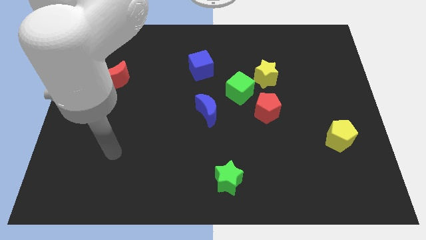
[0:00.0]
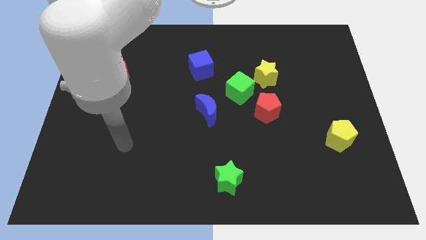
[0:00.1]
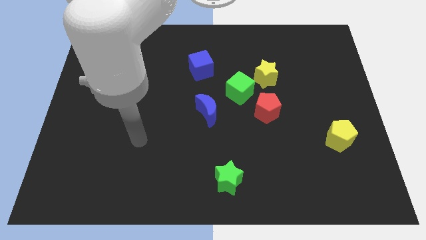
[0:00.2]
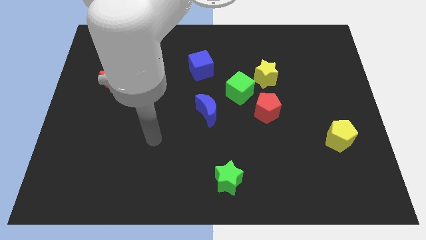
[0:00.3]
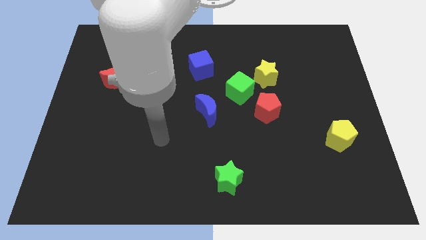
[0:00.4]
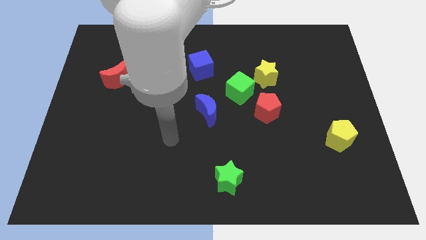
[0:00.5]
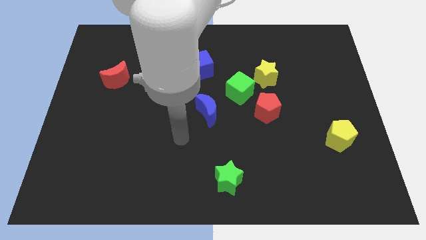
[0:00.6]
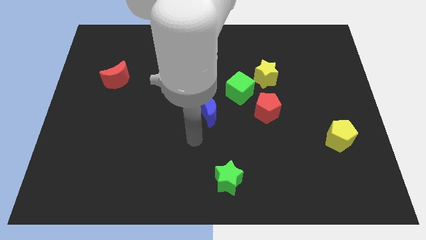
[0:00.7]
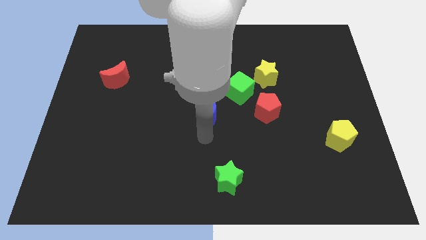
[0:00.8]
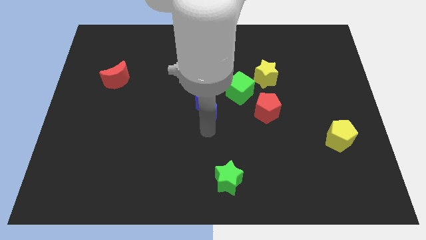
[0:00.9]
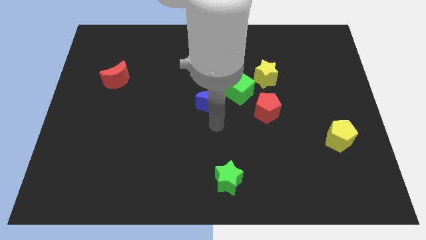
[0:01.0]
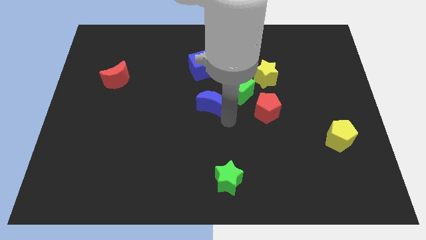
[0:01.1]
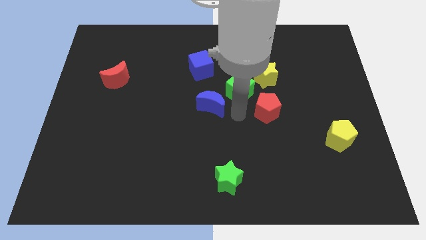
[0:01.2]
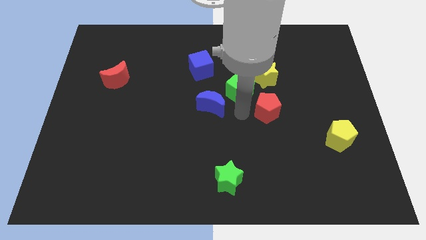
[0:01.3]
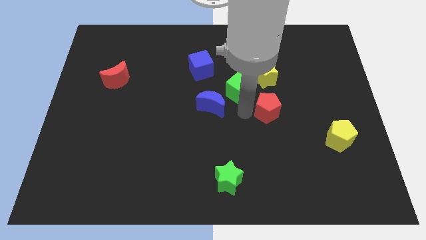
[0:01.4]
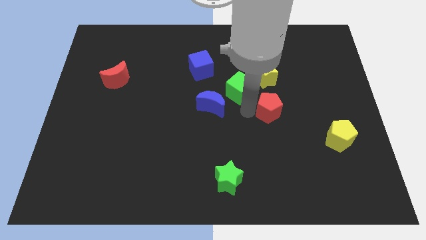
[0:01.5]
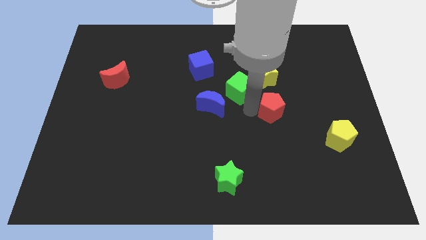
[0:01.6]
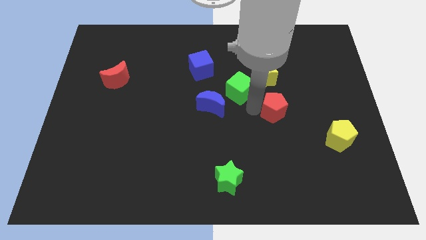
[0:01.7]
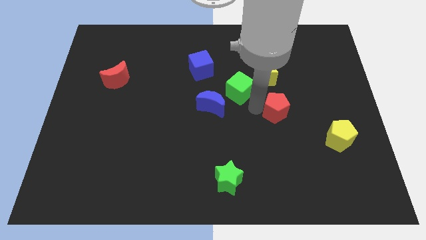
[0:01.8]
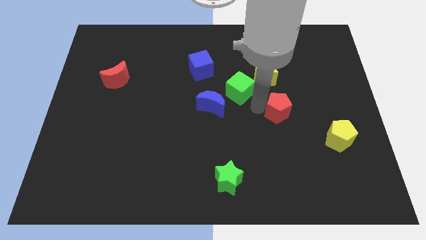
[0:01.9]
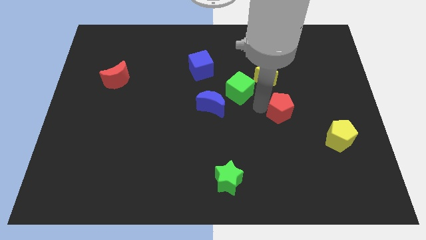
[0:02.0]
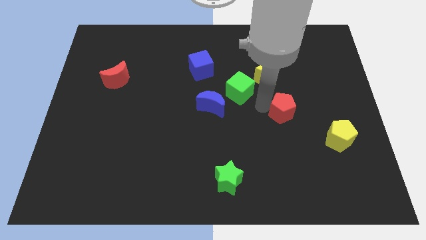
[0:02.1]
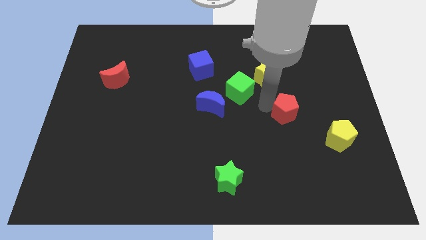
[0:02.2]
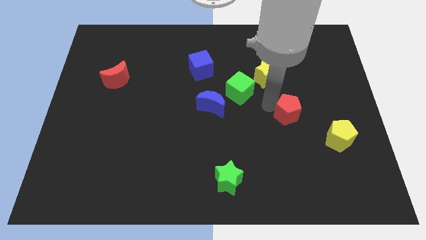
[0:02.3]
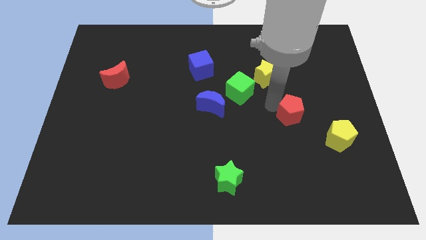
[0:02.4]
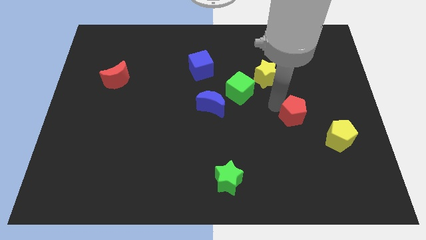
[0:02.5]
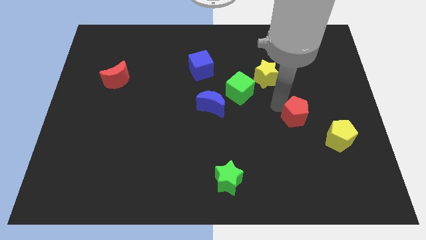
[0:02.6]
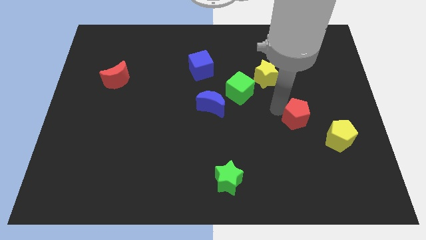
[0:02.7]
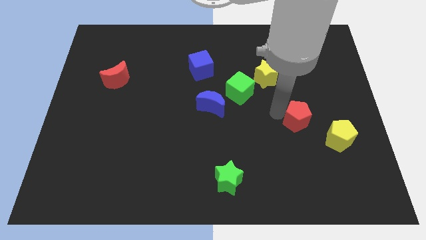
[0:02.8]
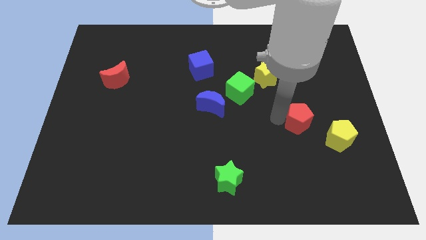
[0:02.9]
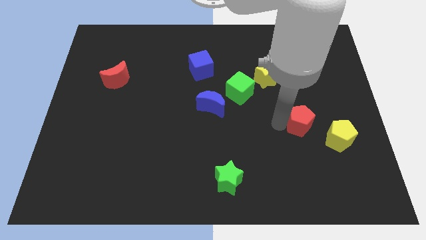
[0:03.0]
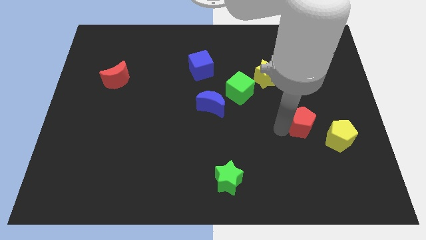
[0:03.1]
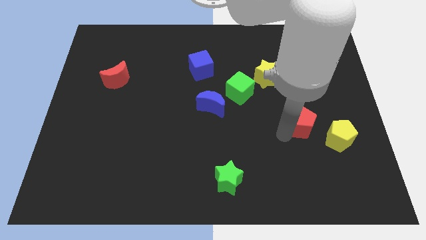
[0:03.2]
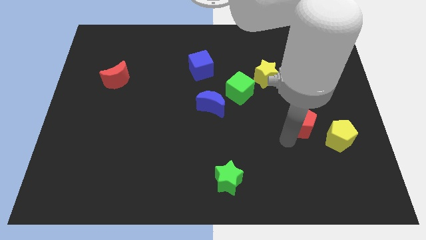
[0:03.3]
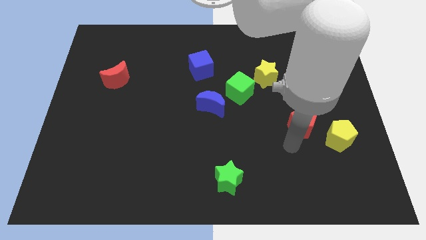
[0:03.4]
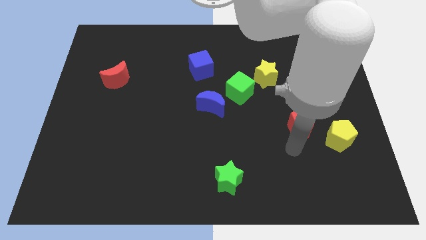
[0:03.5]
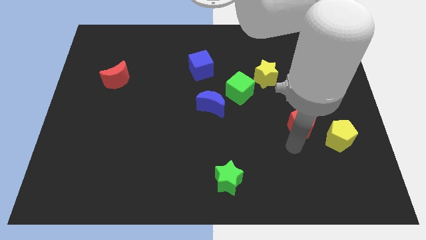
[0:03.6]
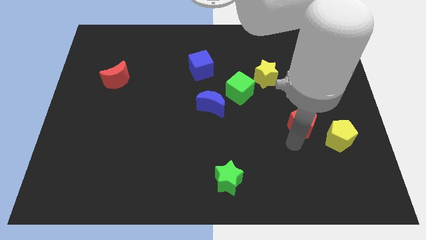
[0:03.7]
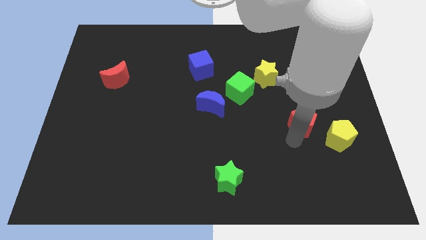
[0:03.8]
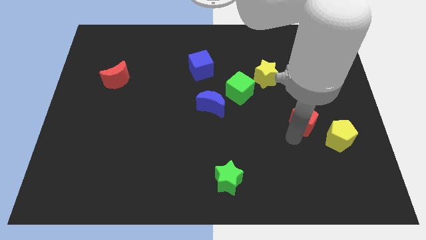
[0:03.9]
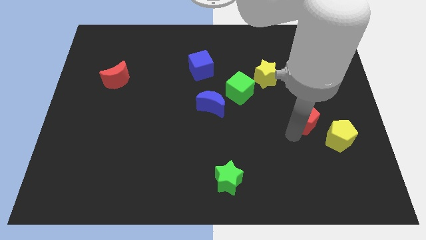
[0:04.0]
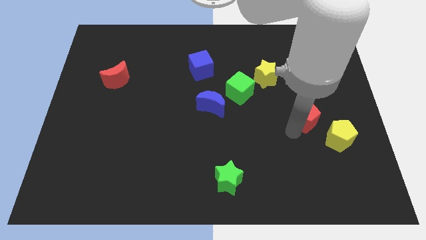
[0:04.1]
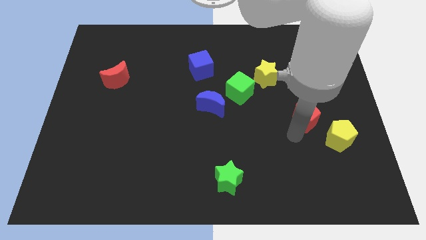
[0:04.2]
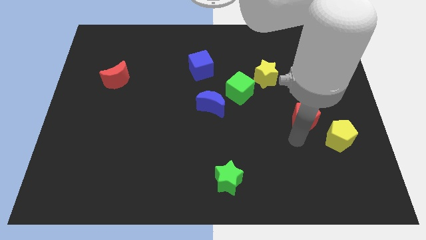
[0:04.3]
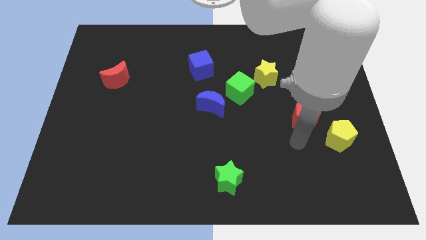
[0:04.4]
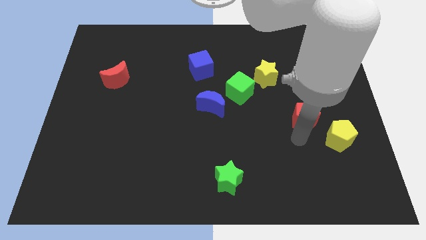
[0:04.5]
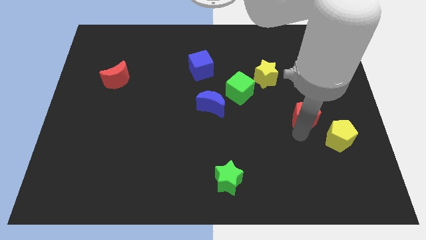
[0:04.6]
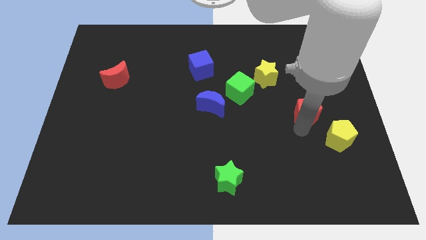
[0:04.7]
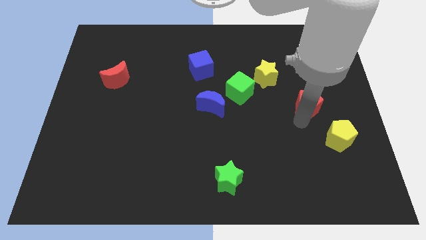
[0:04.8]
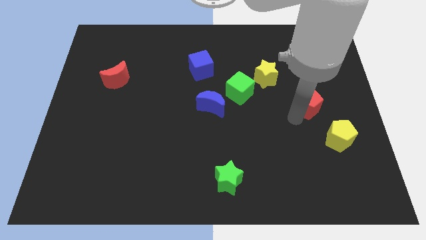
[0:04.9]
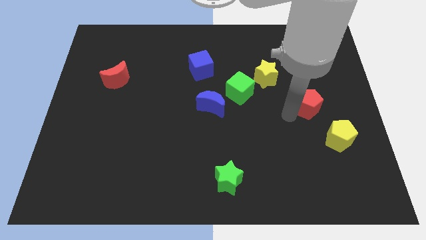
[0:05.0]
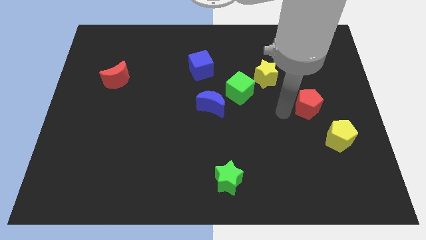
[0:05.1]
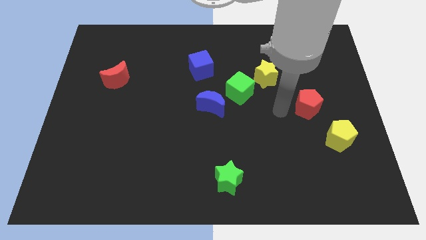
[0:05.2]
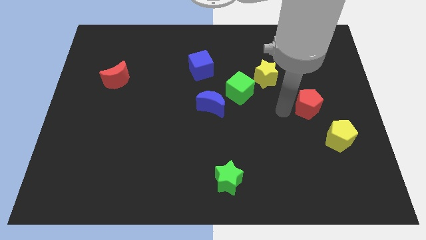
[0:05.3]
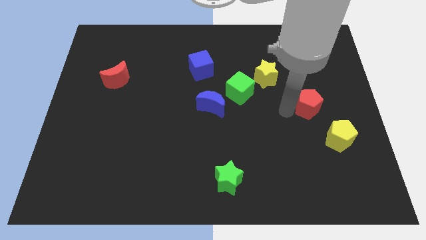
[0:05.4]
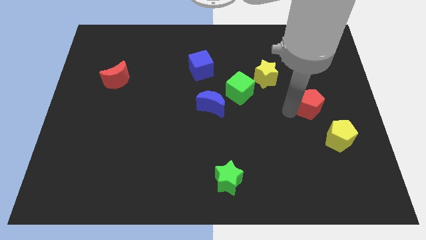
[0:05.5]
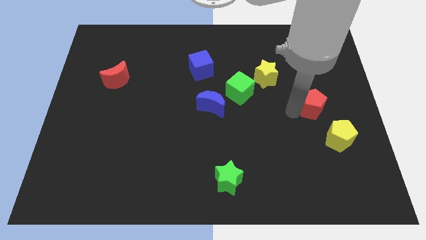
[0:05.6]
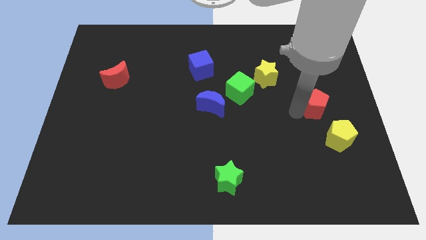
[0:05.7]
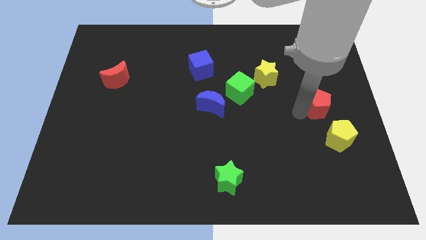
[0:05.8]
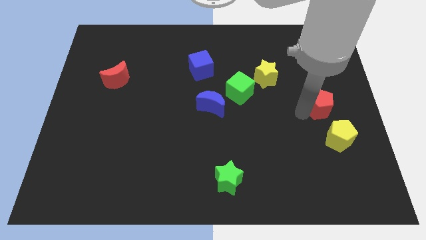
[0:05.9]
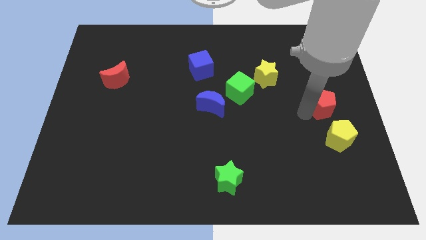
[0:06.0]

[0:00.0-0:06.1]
move the red pentagon to the right side
